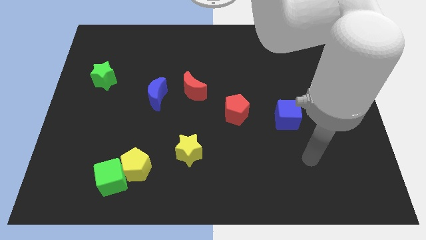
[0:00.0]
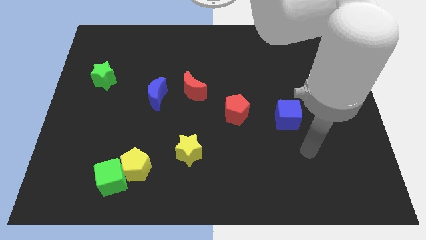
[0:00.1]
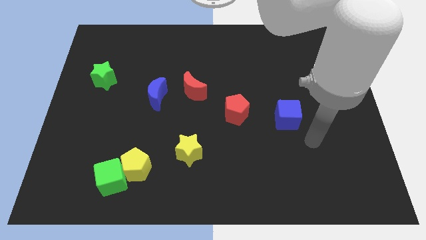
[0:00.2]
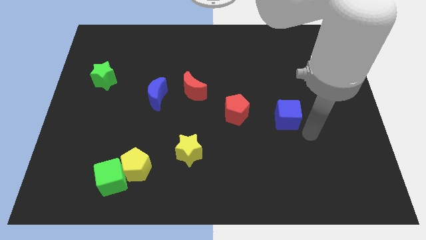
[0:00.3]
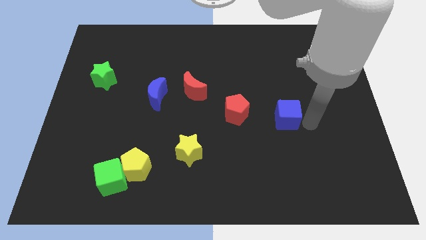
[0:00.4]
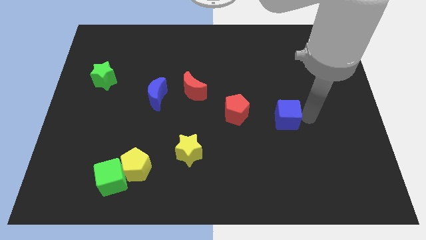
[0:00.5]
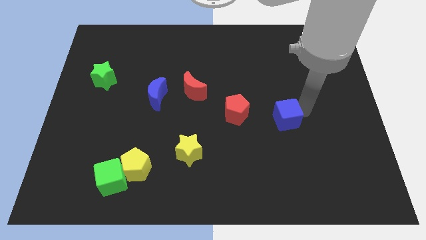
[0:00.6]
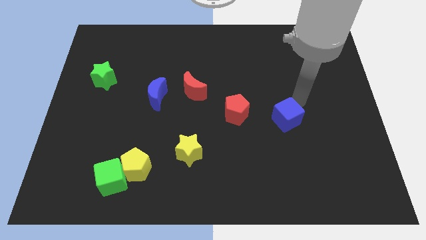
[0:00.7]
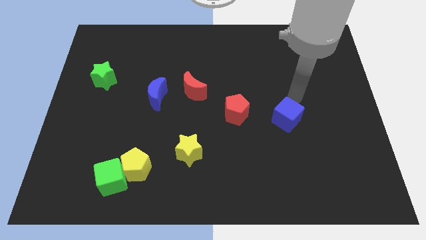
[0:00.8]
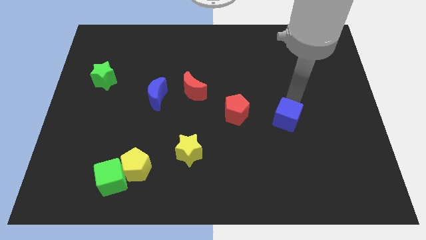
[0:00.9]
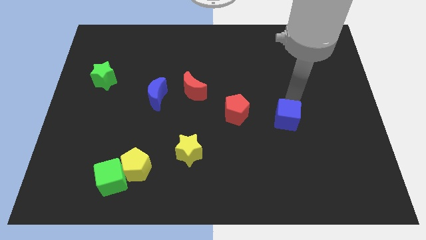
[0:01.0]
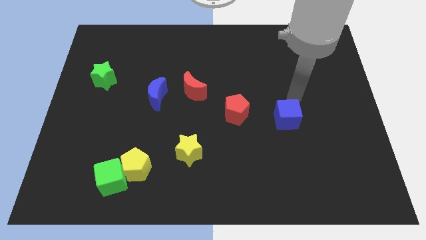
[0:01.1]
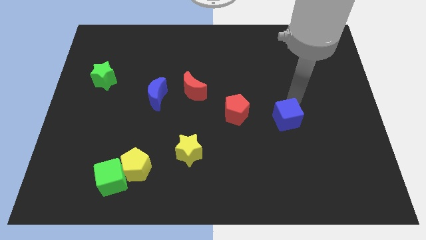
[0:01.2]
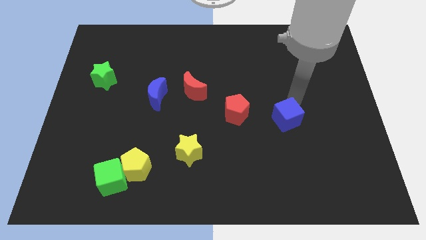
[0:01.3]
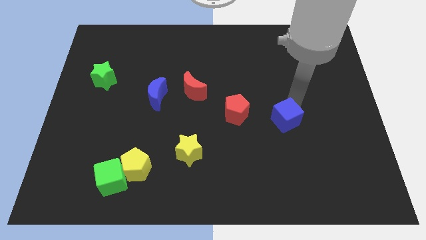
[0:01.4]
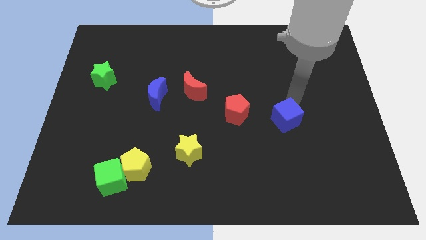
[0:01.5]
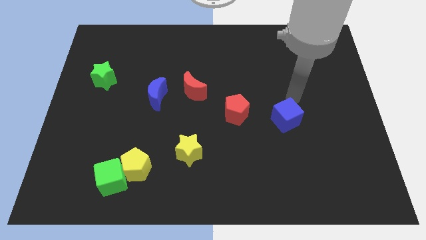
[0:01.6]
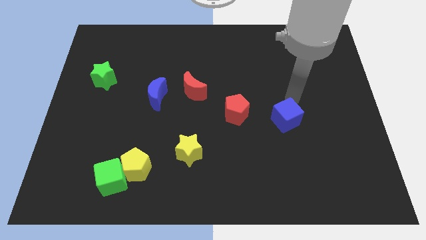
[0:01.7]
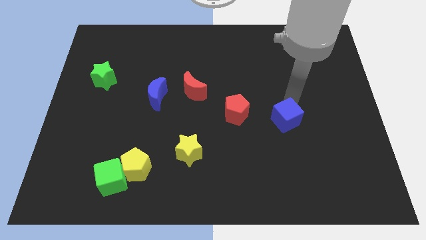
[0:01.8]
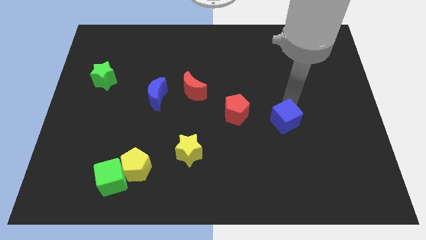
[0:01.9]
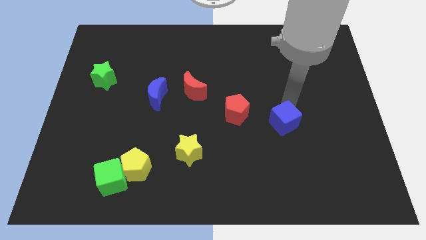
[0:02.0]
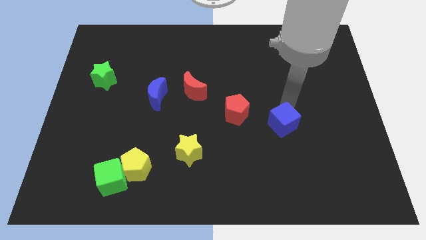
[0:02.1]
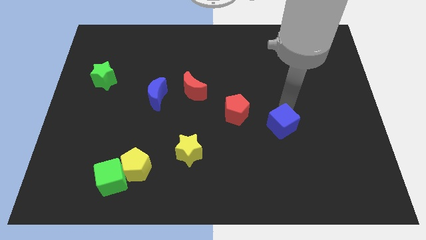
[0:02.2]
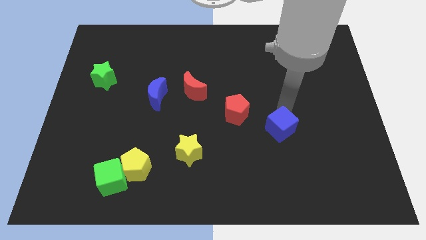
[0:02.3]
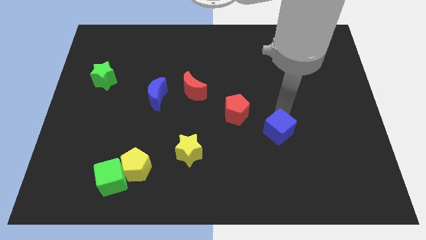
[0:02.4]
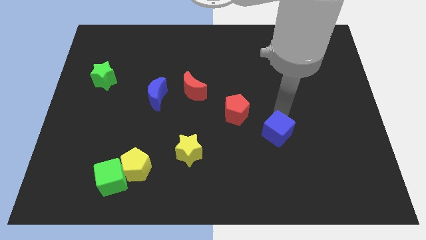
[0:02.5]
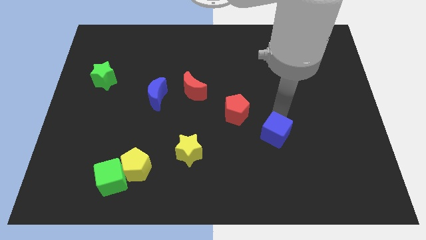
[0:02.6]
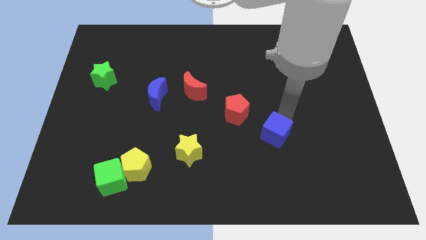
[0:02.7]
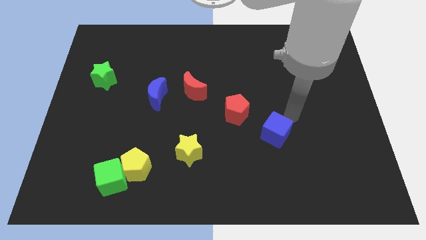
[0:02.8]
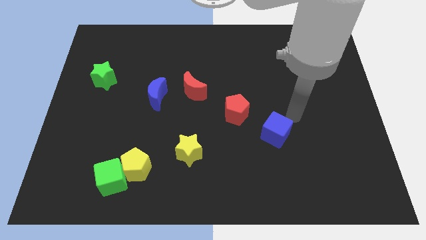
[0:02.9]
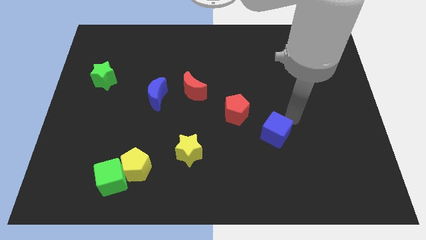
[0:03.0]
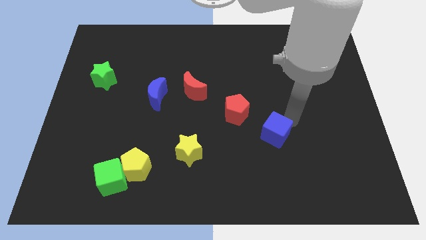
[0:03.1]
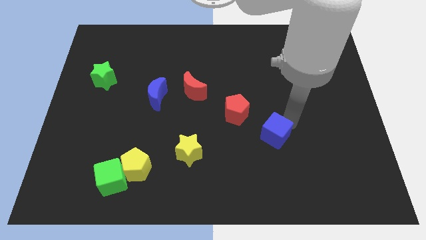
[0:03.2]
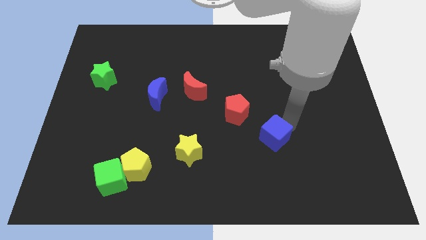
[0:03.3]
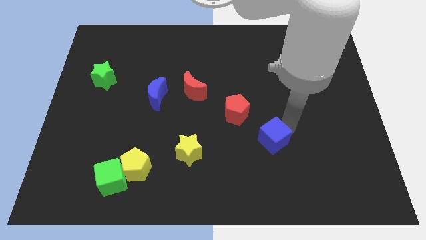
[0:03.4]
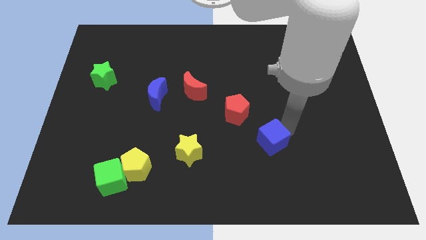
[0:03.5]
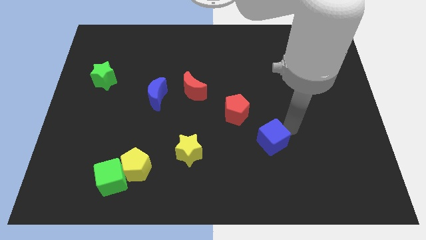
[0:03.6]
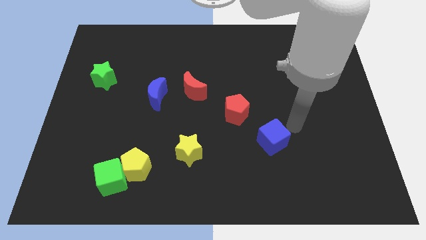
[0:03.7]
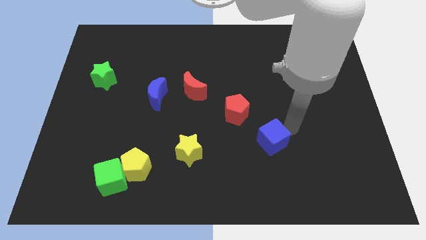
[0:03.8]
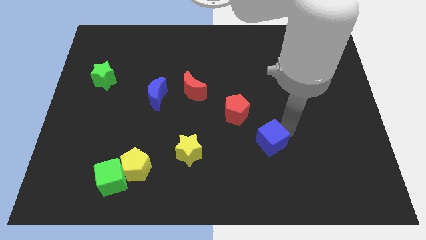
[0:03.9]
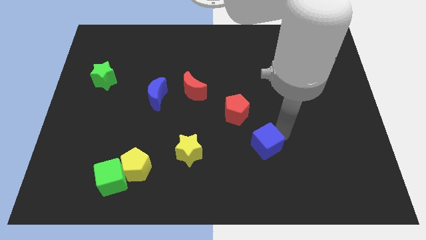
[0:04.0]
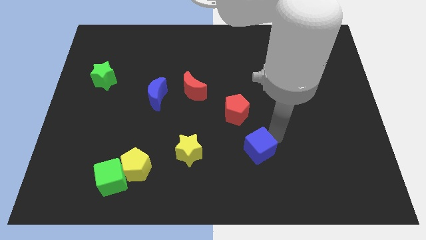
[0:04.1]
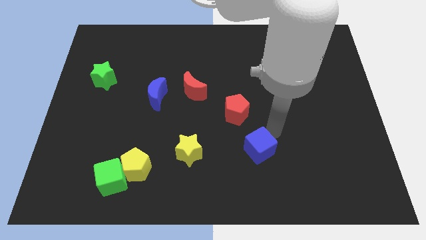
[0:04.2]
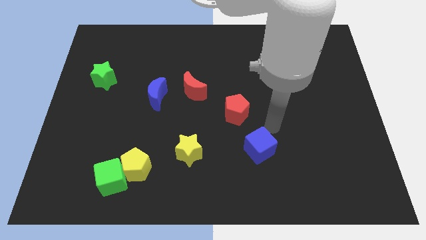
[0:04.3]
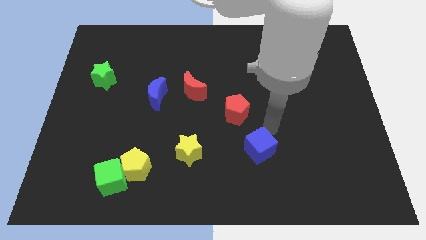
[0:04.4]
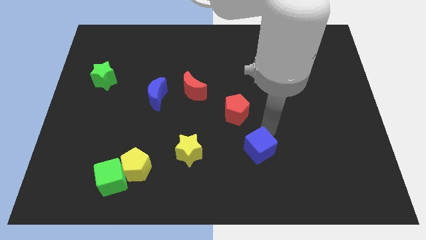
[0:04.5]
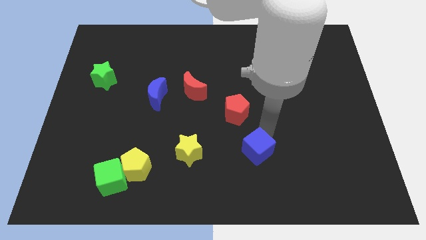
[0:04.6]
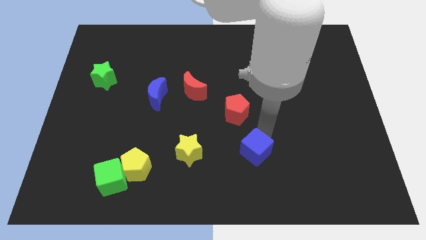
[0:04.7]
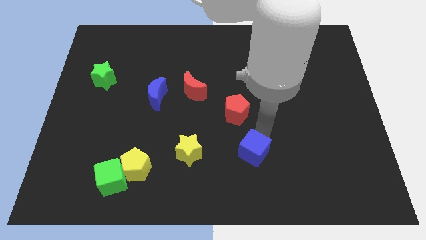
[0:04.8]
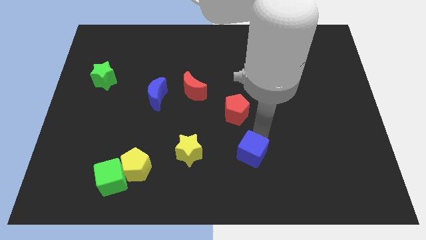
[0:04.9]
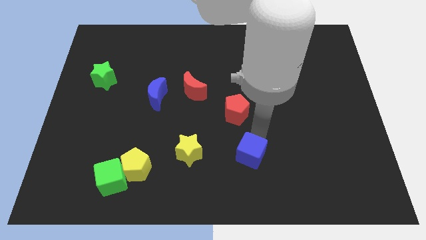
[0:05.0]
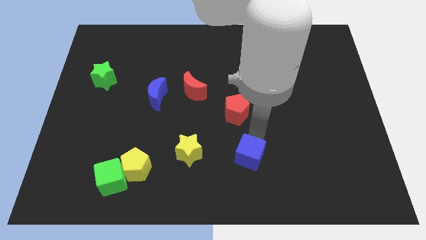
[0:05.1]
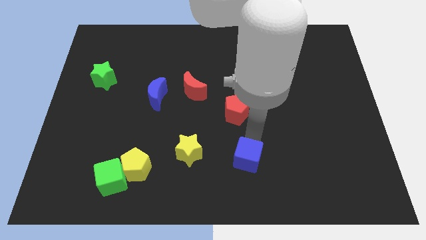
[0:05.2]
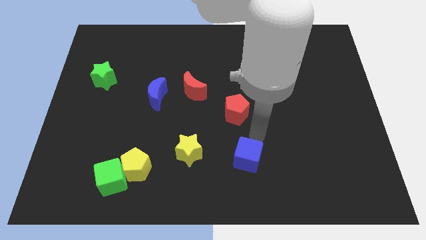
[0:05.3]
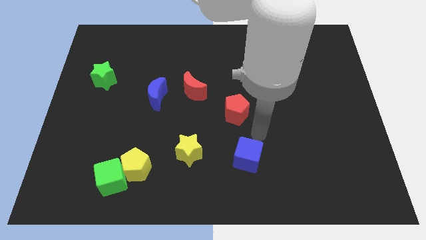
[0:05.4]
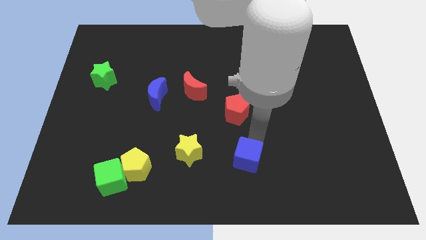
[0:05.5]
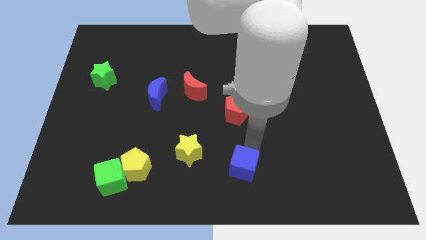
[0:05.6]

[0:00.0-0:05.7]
push the blue cube to the bottom
